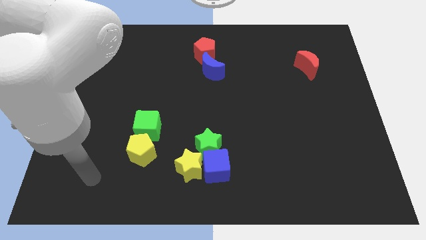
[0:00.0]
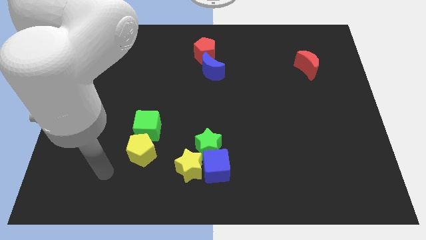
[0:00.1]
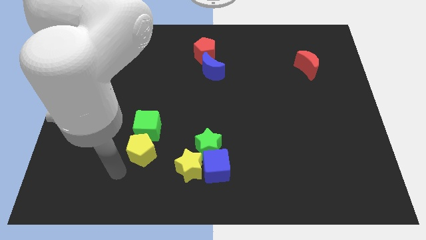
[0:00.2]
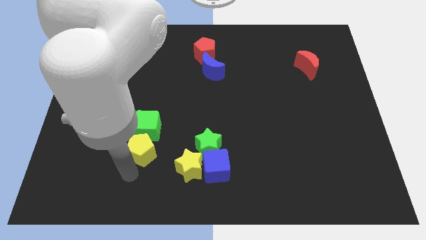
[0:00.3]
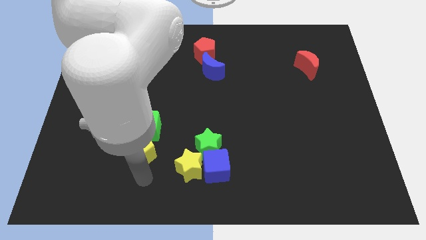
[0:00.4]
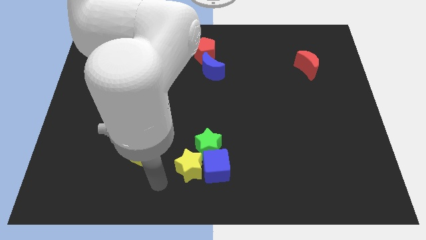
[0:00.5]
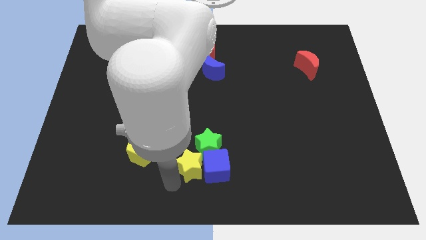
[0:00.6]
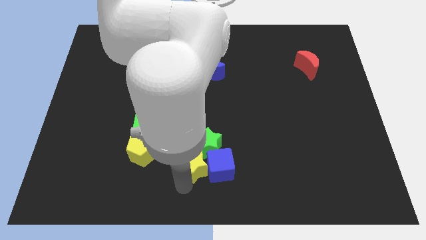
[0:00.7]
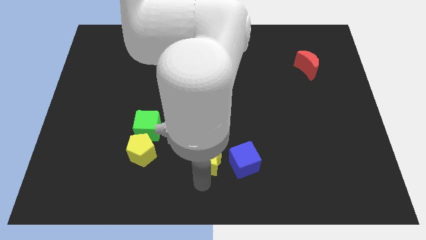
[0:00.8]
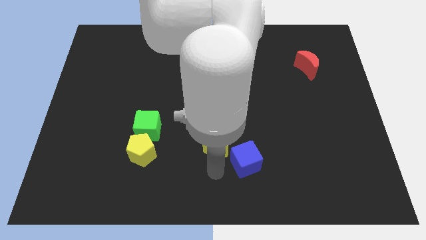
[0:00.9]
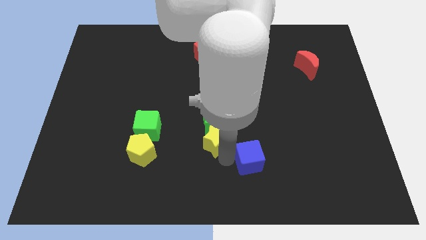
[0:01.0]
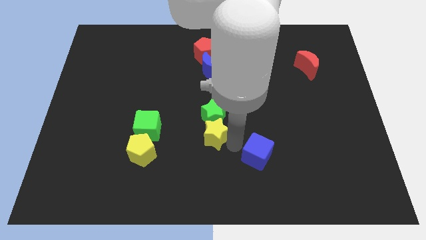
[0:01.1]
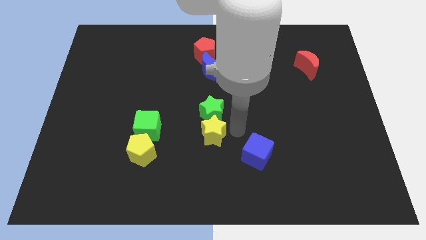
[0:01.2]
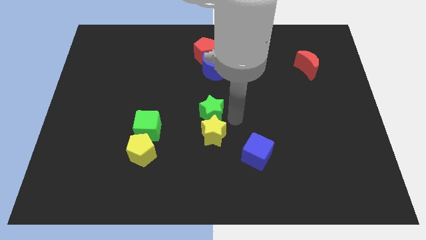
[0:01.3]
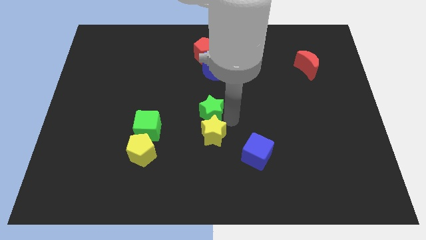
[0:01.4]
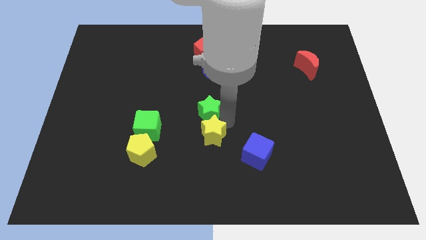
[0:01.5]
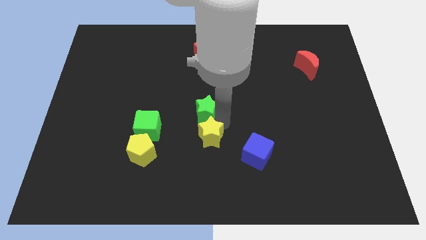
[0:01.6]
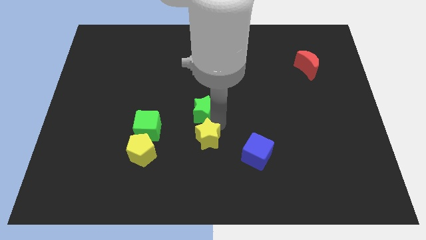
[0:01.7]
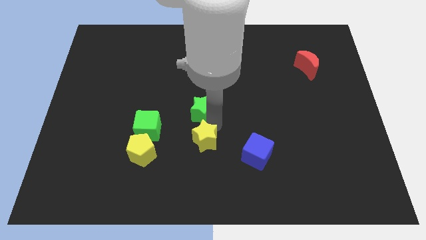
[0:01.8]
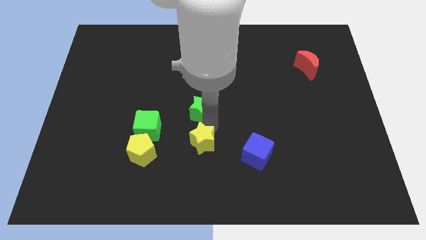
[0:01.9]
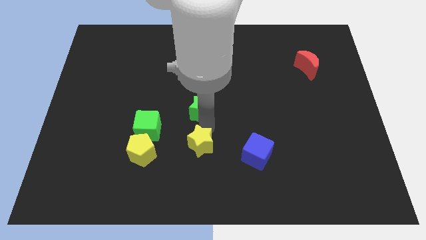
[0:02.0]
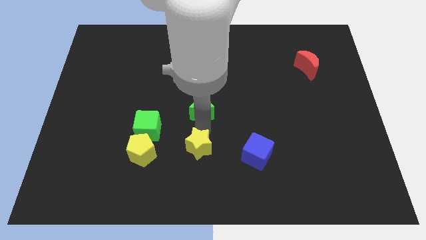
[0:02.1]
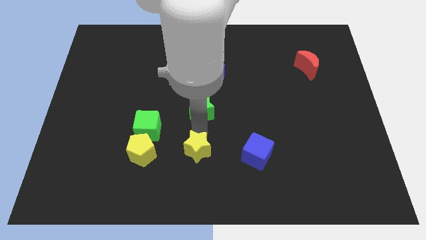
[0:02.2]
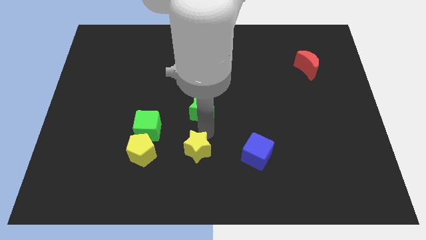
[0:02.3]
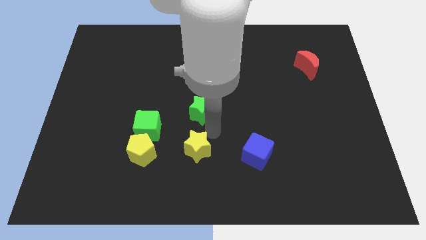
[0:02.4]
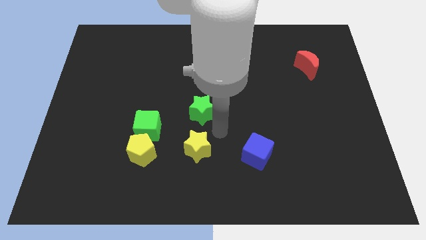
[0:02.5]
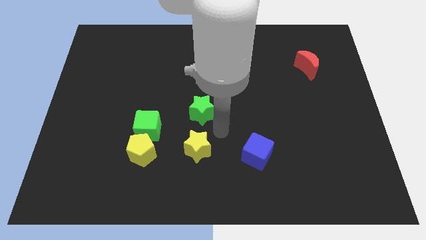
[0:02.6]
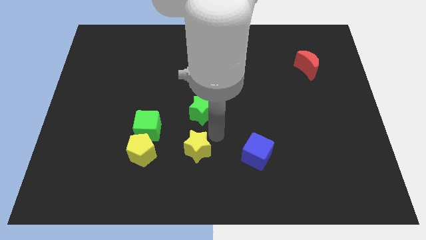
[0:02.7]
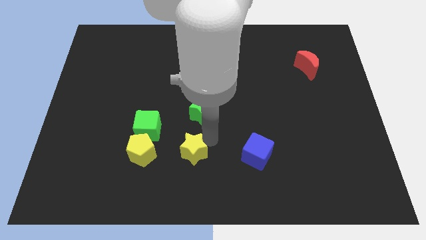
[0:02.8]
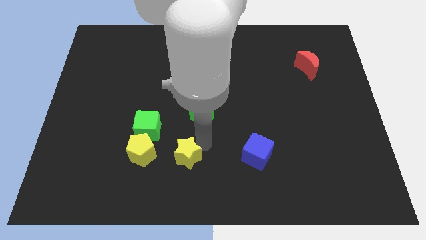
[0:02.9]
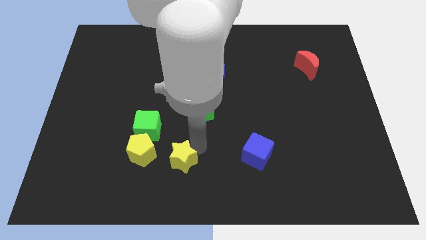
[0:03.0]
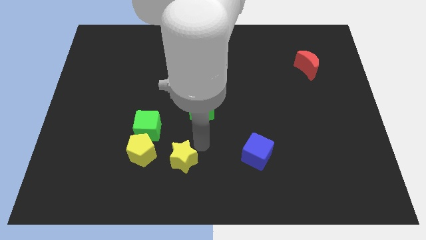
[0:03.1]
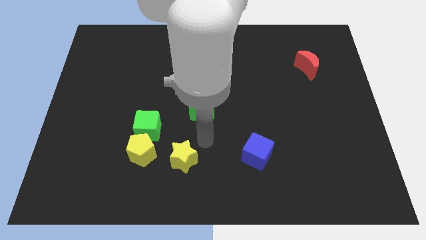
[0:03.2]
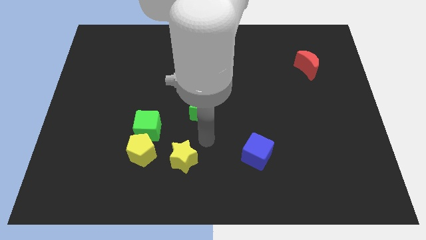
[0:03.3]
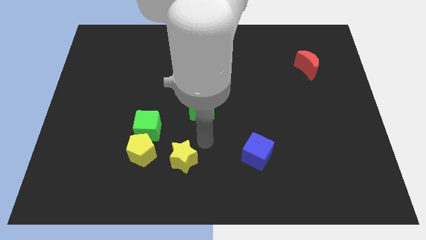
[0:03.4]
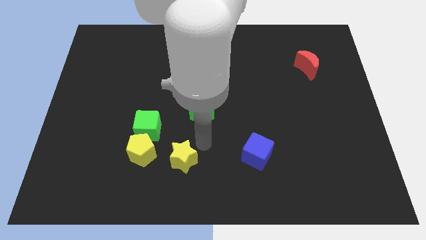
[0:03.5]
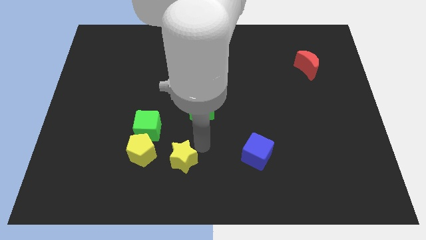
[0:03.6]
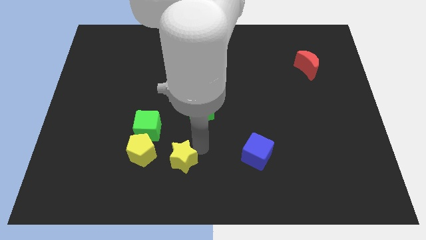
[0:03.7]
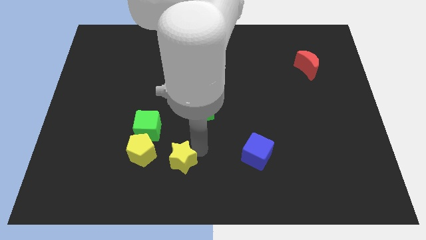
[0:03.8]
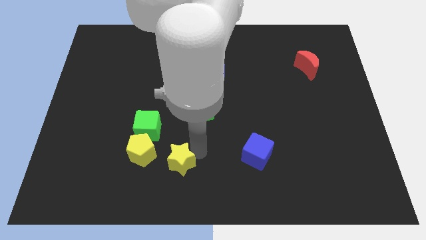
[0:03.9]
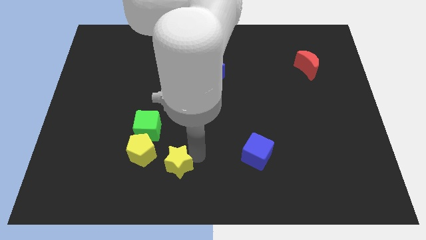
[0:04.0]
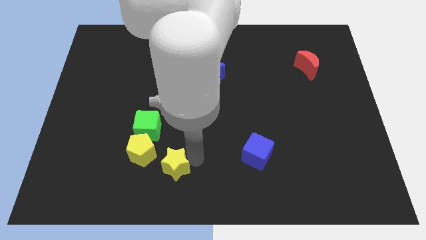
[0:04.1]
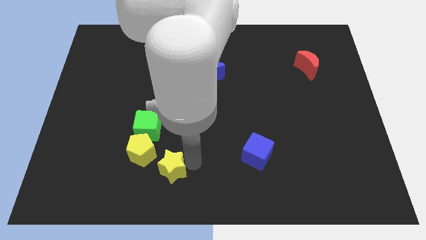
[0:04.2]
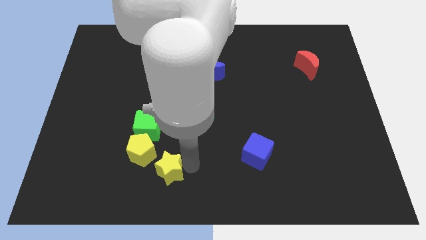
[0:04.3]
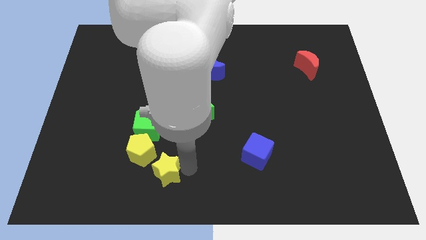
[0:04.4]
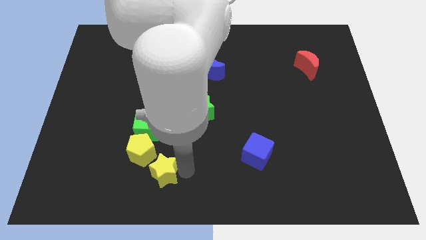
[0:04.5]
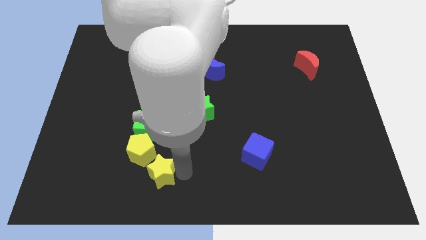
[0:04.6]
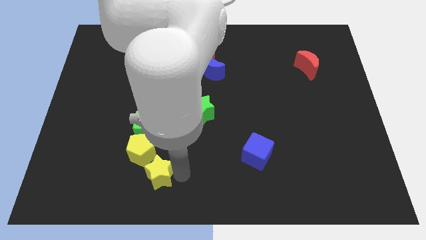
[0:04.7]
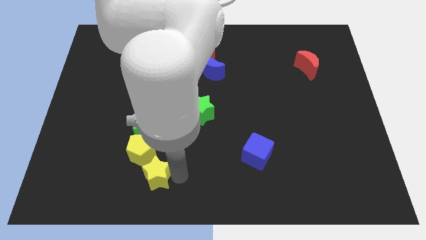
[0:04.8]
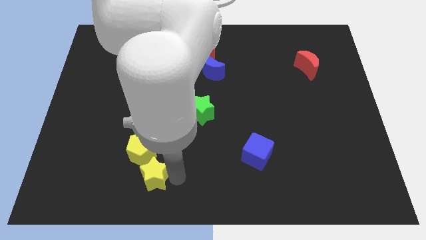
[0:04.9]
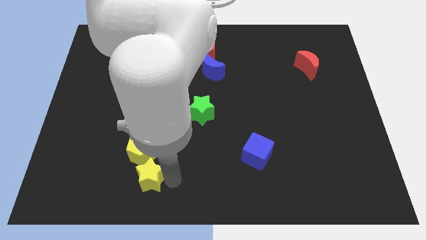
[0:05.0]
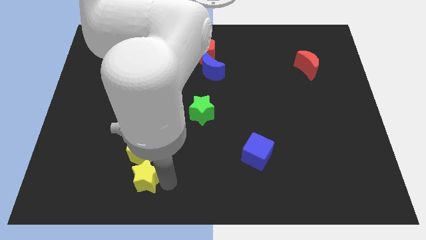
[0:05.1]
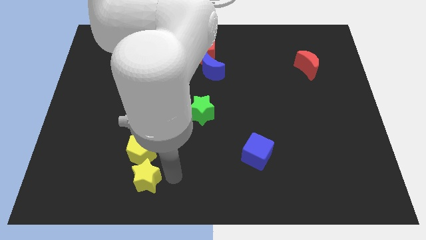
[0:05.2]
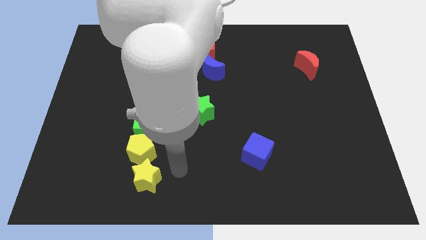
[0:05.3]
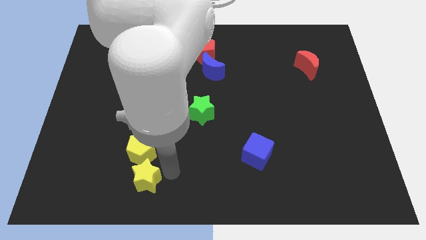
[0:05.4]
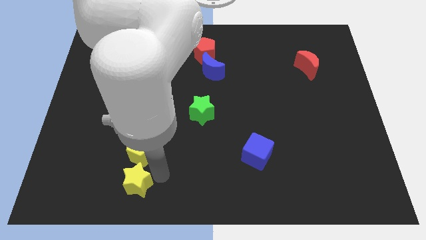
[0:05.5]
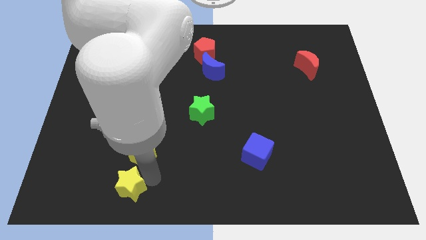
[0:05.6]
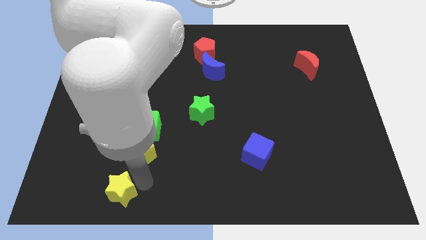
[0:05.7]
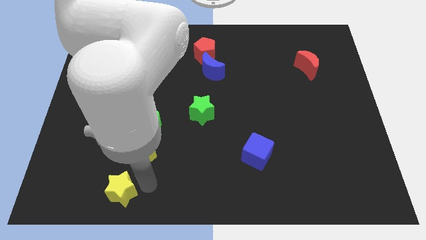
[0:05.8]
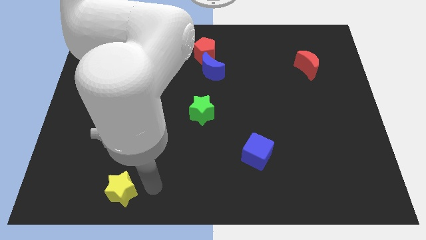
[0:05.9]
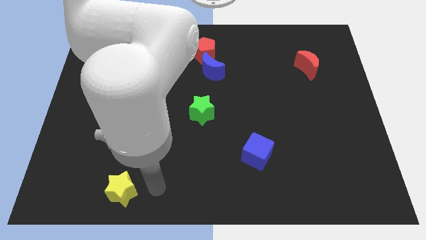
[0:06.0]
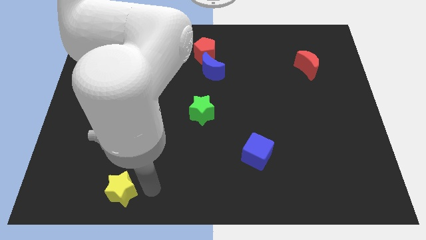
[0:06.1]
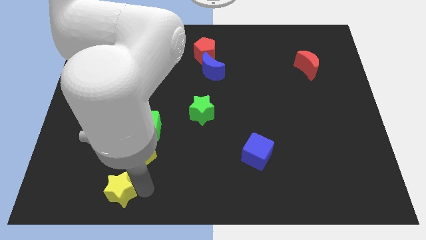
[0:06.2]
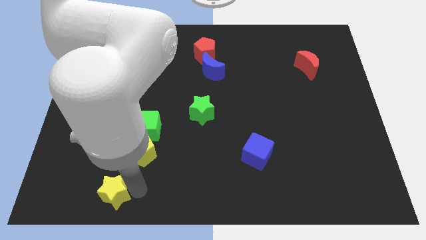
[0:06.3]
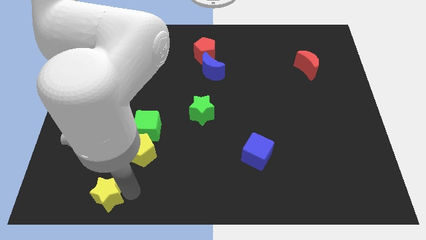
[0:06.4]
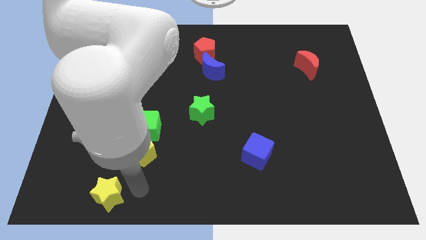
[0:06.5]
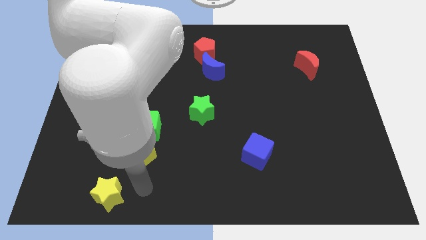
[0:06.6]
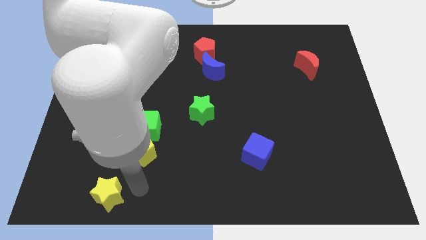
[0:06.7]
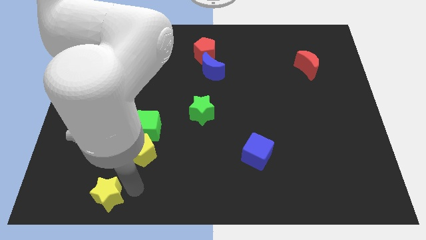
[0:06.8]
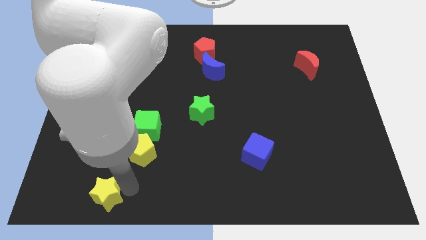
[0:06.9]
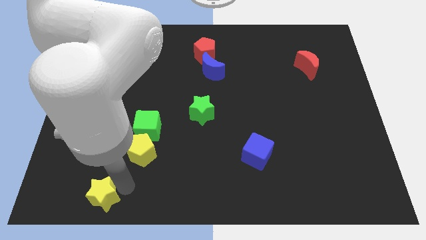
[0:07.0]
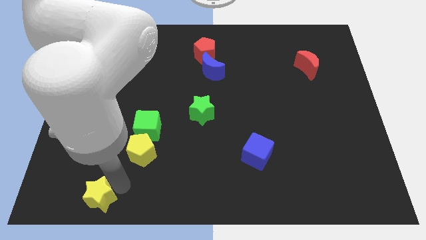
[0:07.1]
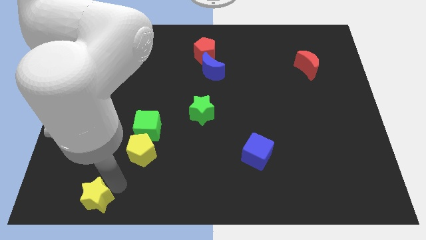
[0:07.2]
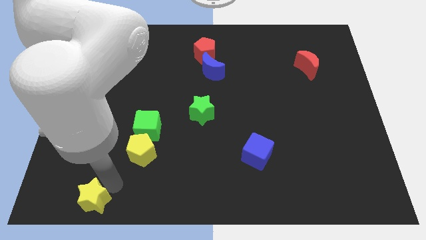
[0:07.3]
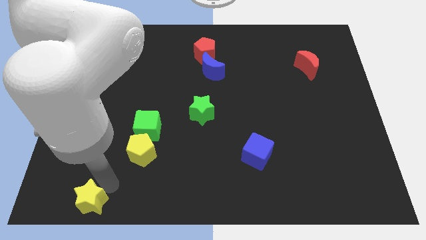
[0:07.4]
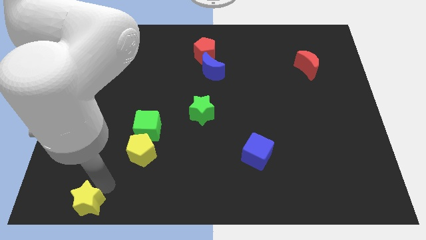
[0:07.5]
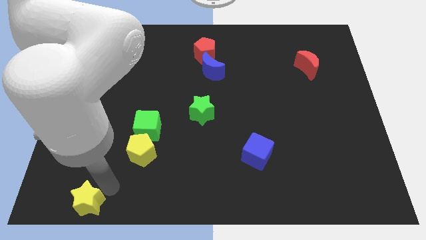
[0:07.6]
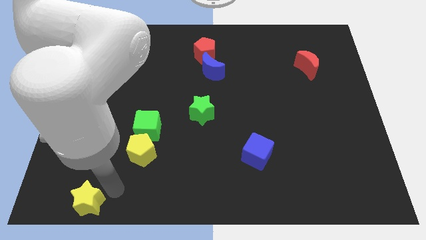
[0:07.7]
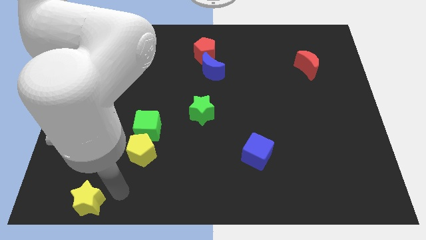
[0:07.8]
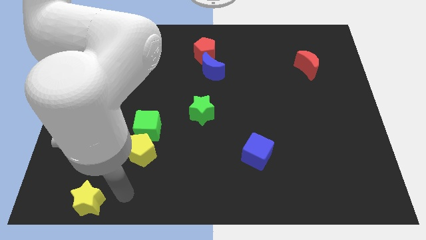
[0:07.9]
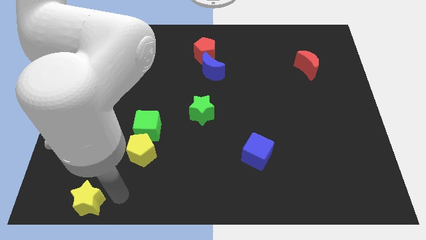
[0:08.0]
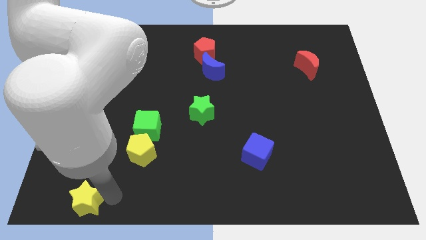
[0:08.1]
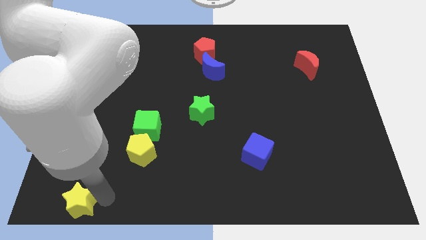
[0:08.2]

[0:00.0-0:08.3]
put the yellow star to the bottom left of the board
